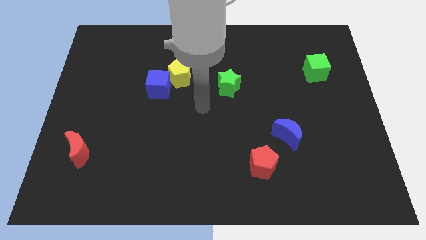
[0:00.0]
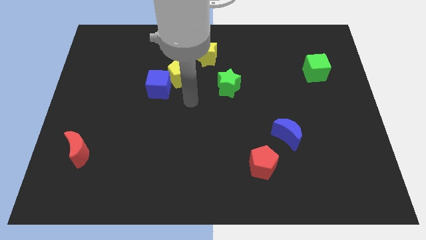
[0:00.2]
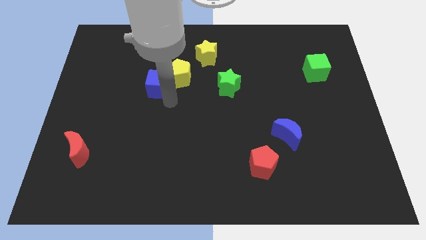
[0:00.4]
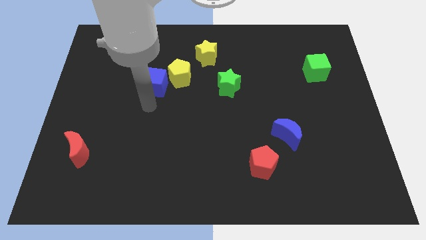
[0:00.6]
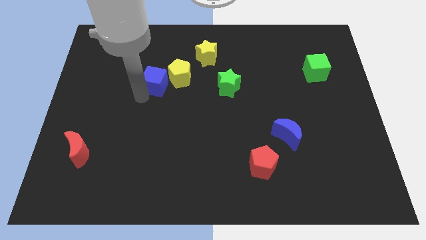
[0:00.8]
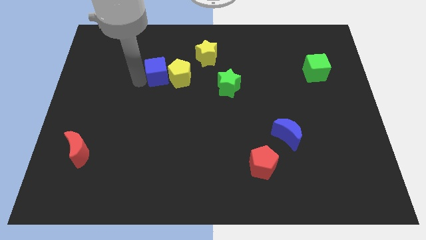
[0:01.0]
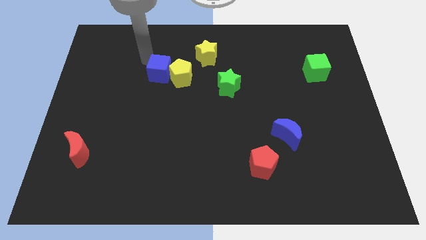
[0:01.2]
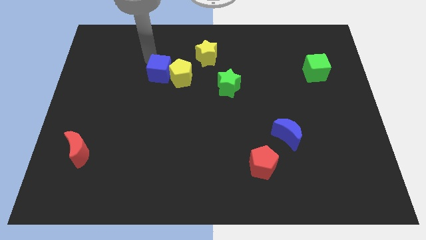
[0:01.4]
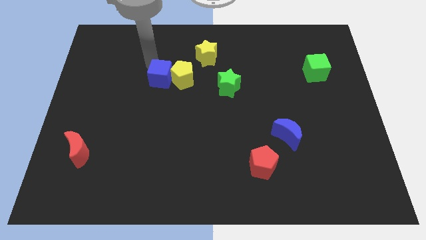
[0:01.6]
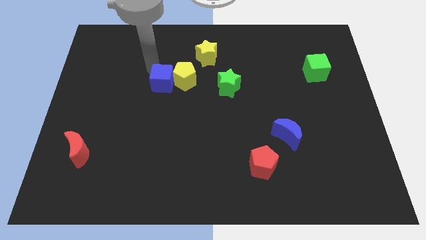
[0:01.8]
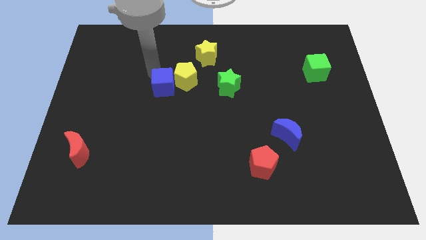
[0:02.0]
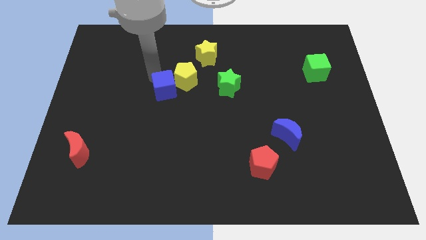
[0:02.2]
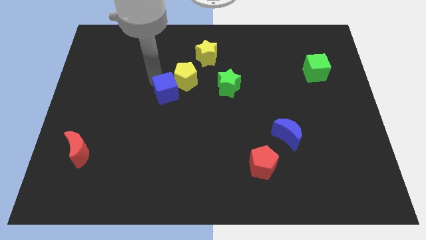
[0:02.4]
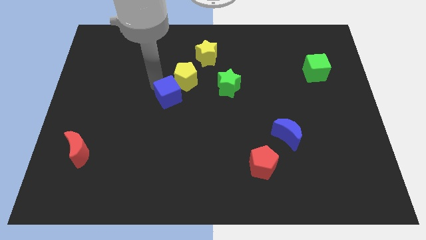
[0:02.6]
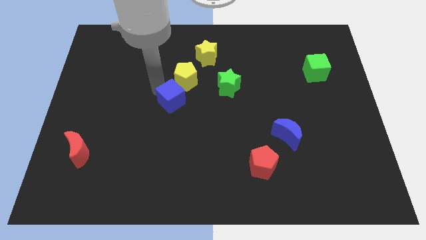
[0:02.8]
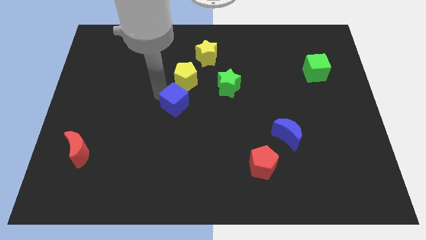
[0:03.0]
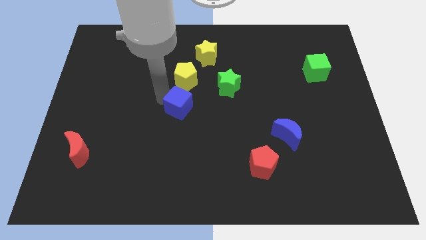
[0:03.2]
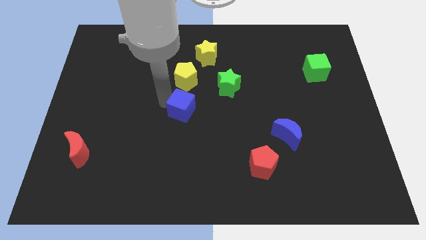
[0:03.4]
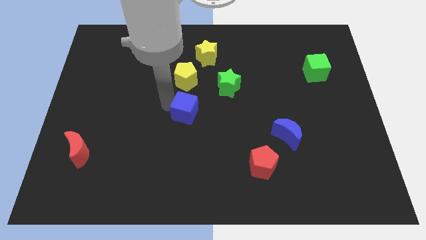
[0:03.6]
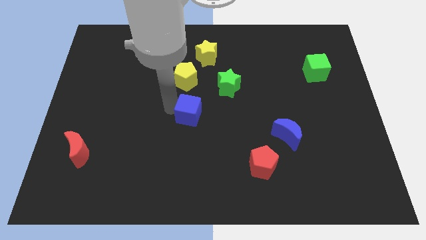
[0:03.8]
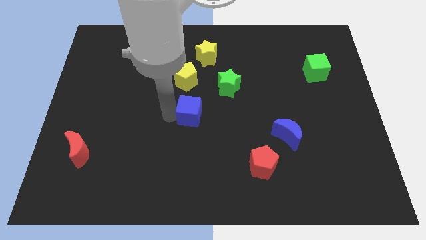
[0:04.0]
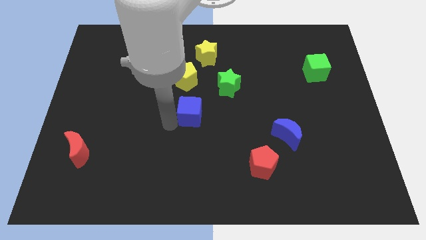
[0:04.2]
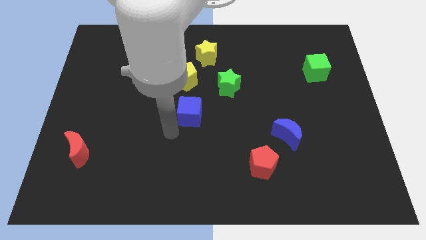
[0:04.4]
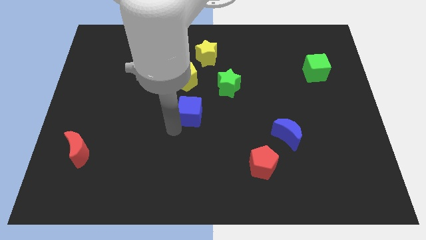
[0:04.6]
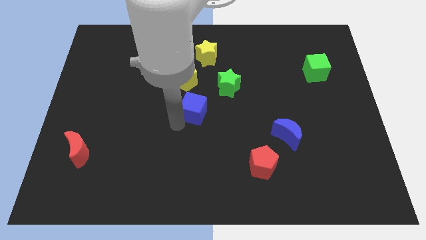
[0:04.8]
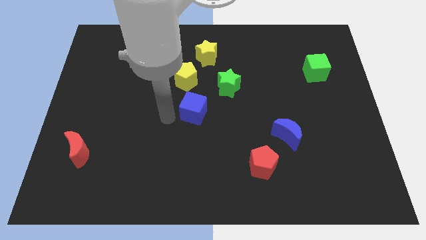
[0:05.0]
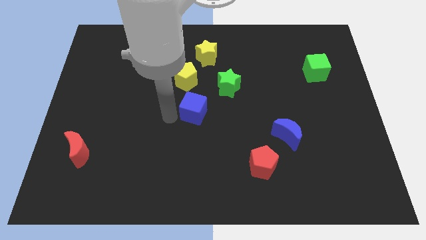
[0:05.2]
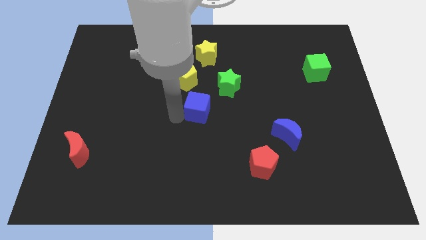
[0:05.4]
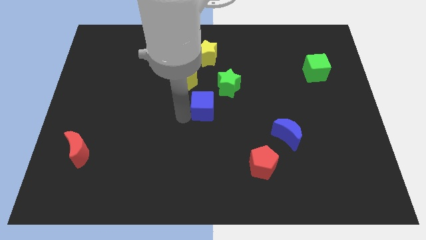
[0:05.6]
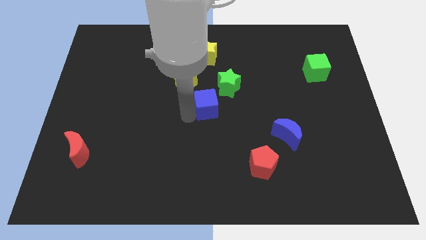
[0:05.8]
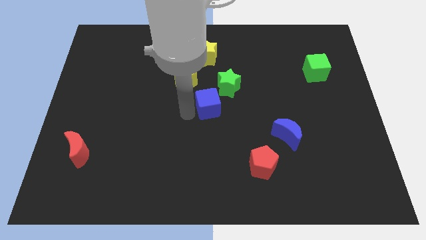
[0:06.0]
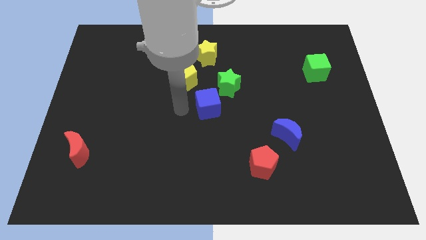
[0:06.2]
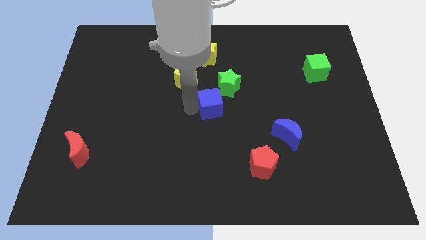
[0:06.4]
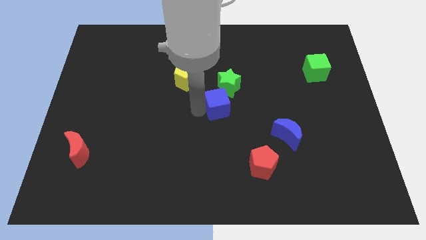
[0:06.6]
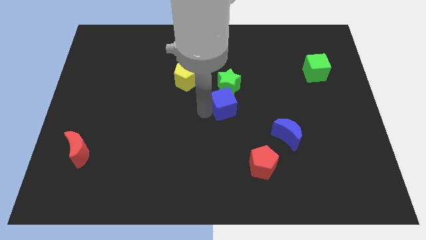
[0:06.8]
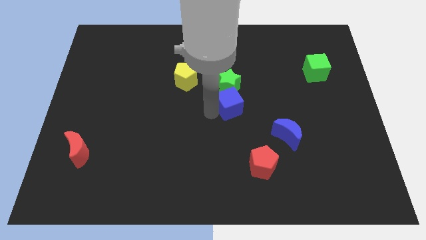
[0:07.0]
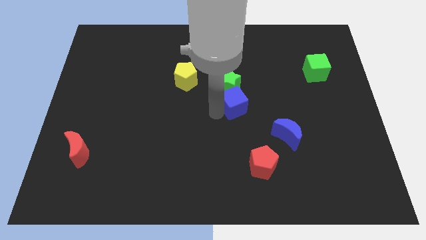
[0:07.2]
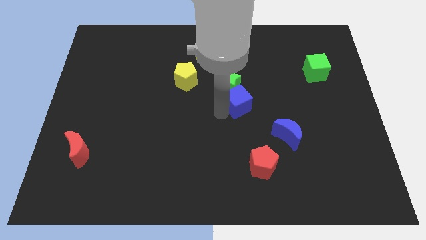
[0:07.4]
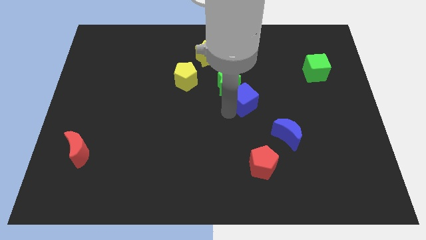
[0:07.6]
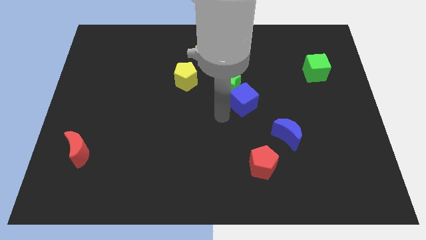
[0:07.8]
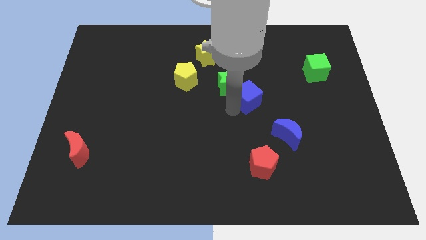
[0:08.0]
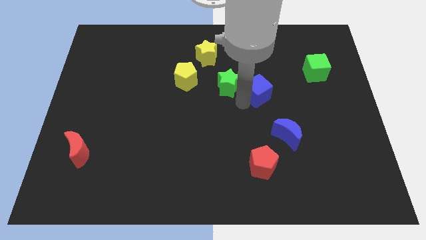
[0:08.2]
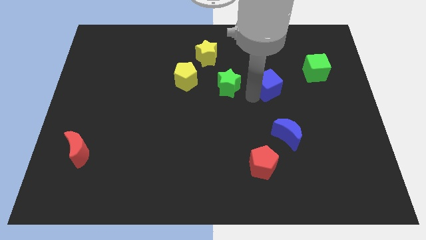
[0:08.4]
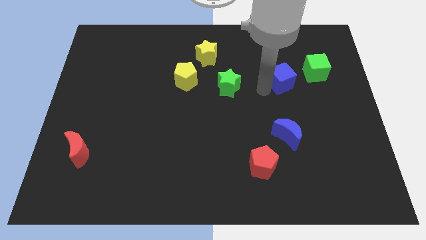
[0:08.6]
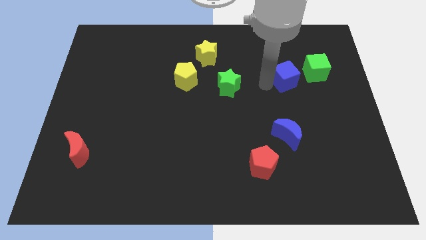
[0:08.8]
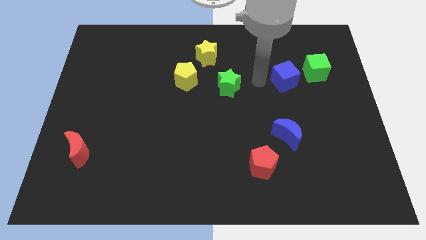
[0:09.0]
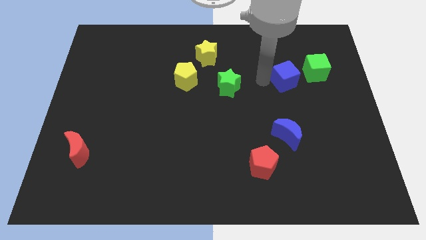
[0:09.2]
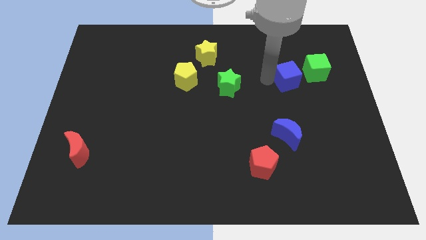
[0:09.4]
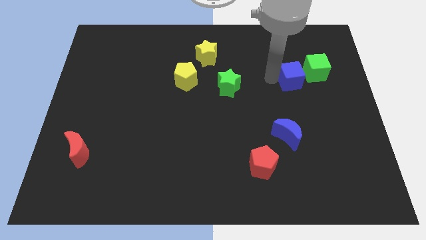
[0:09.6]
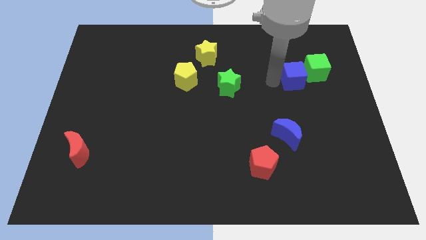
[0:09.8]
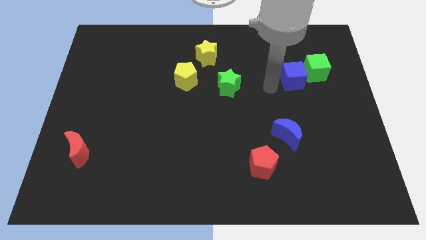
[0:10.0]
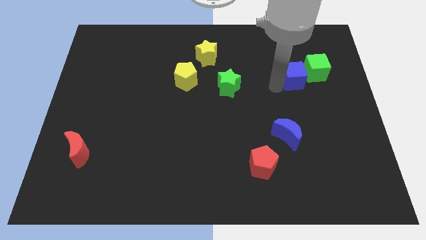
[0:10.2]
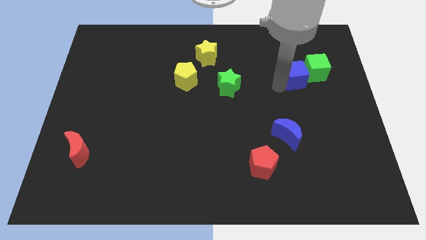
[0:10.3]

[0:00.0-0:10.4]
push the blue cube to the green cube

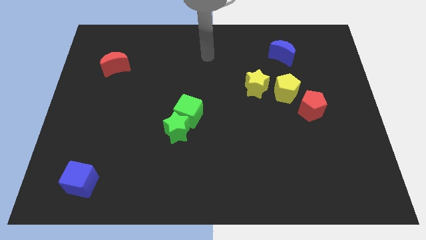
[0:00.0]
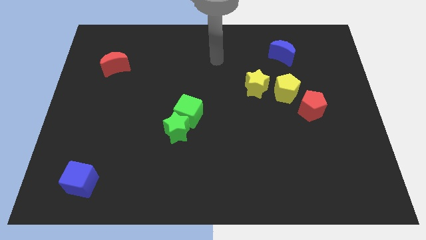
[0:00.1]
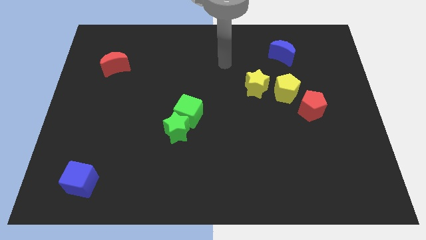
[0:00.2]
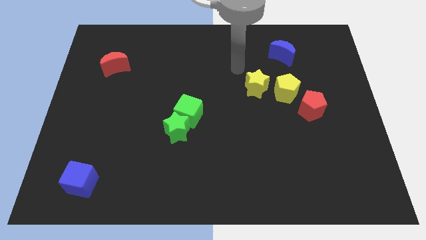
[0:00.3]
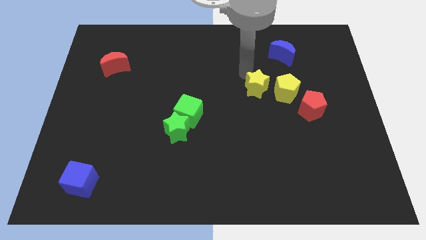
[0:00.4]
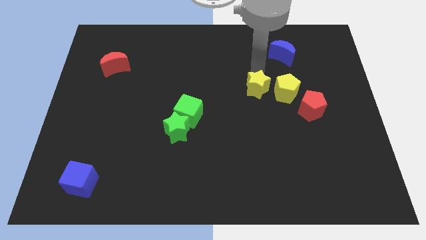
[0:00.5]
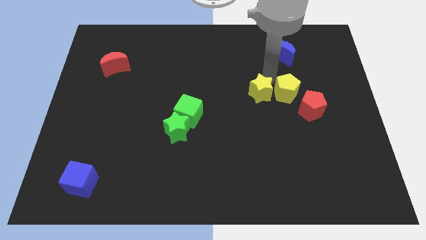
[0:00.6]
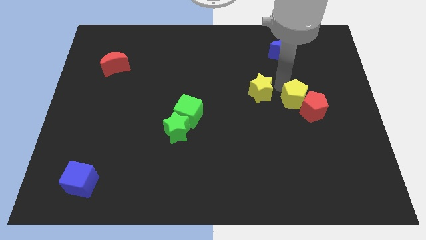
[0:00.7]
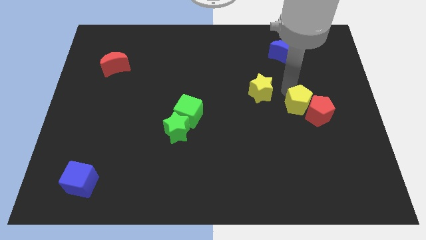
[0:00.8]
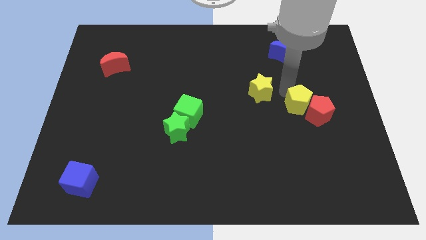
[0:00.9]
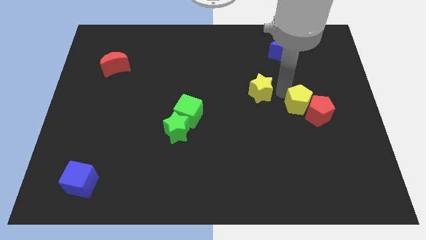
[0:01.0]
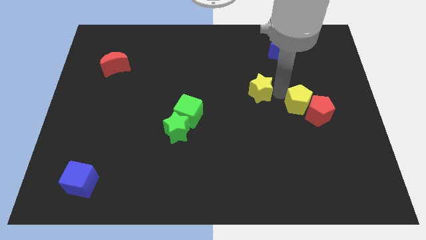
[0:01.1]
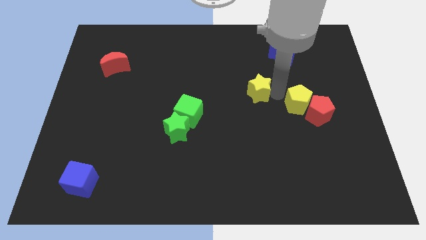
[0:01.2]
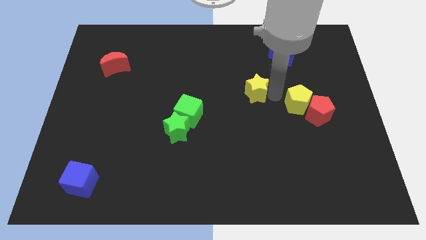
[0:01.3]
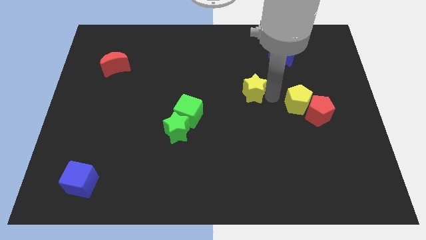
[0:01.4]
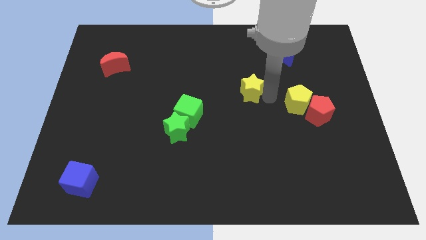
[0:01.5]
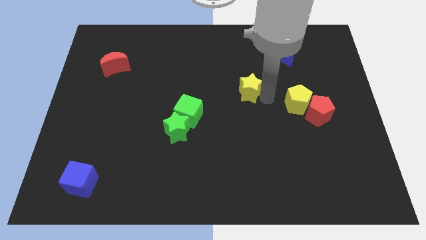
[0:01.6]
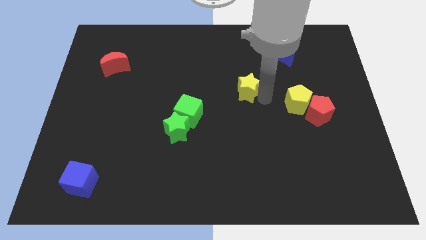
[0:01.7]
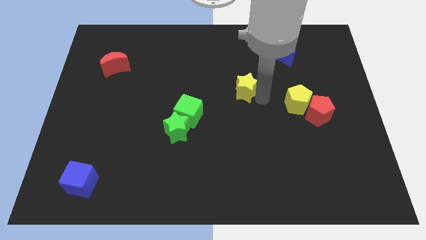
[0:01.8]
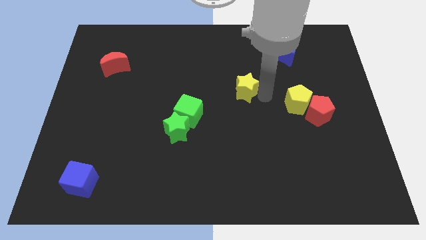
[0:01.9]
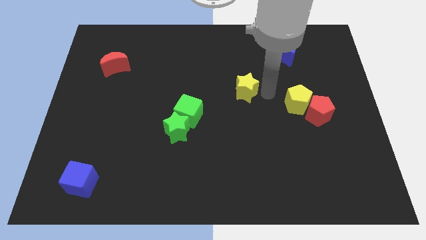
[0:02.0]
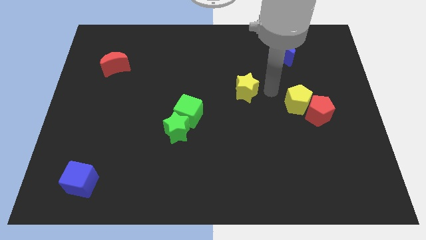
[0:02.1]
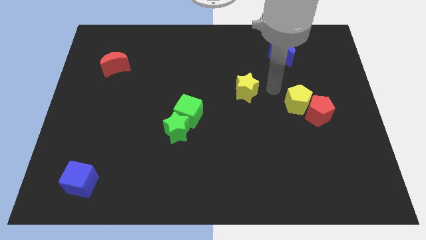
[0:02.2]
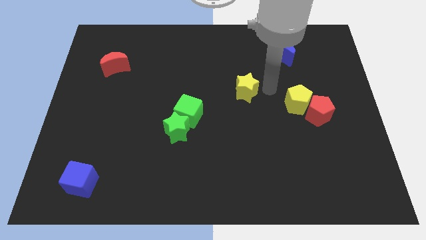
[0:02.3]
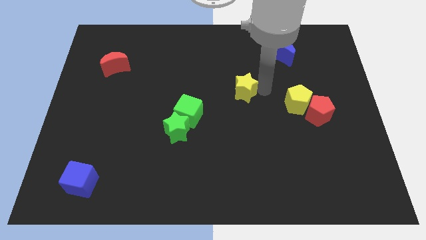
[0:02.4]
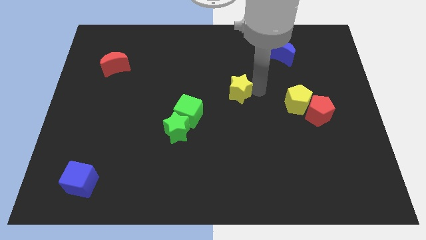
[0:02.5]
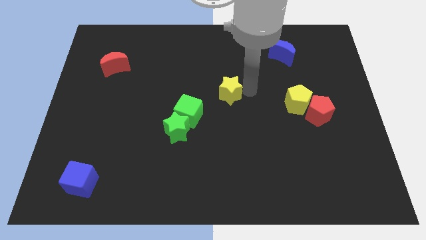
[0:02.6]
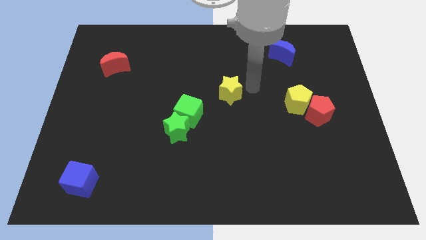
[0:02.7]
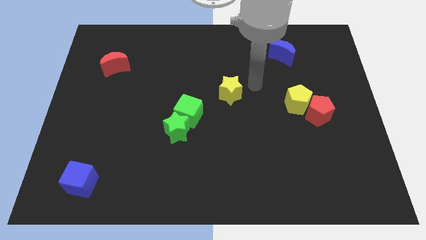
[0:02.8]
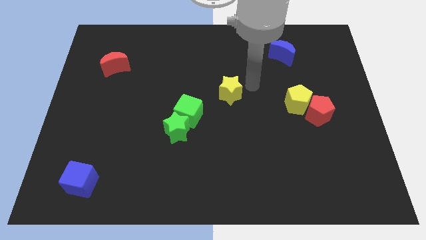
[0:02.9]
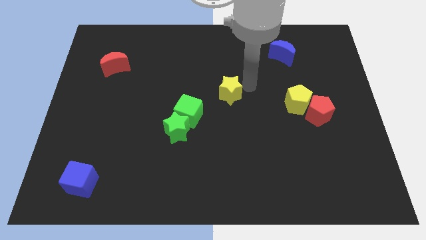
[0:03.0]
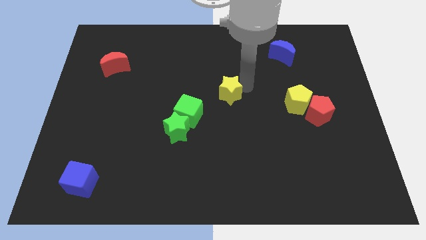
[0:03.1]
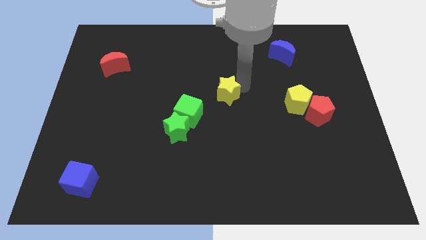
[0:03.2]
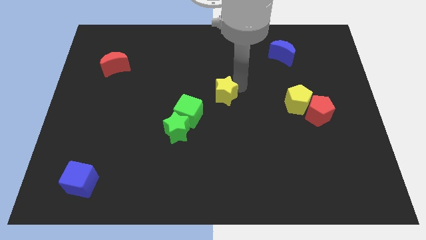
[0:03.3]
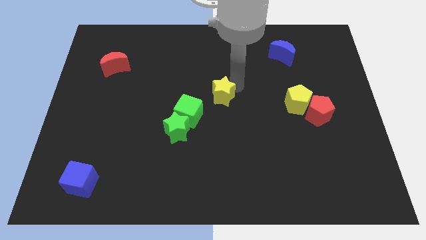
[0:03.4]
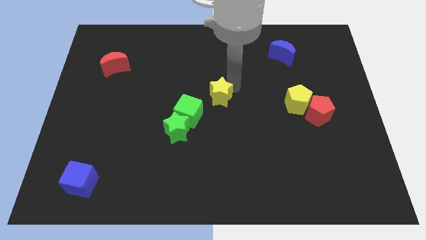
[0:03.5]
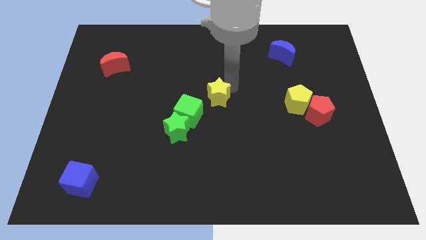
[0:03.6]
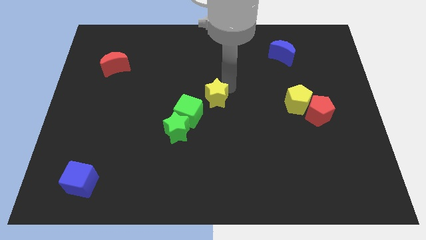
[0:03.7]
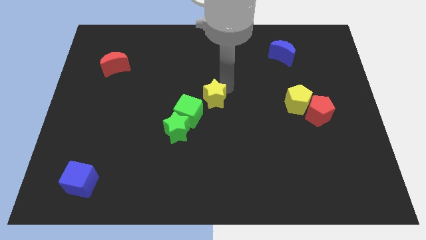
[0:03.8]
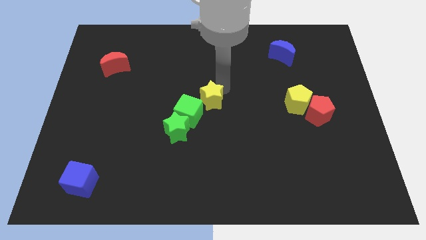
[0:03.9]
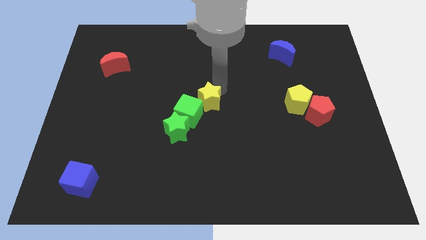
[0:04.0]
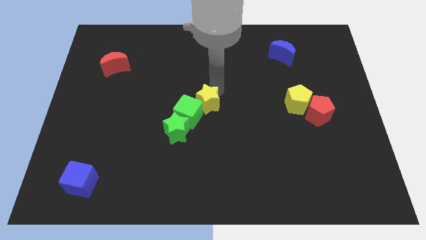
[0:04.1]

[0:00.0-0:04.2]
put the yellow star next to the green cube
